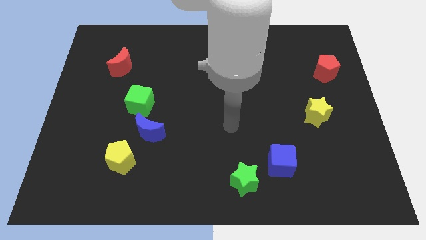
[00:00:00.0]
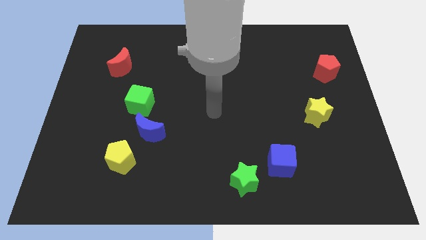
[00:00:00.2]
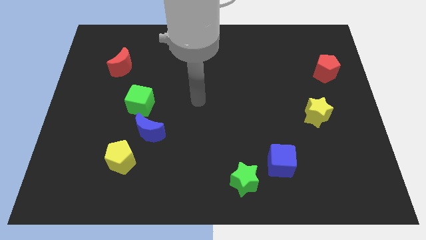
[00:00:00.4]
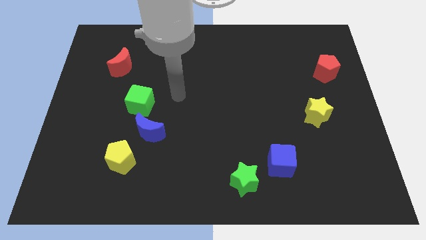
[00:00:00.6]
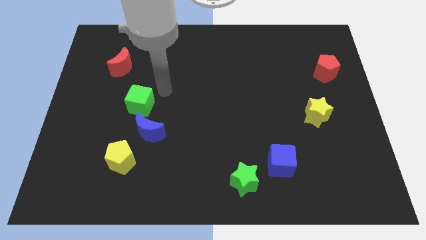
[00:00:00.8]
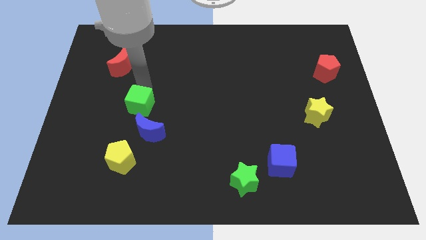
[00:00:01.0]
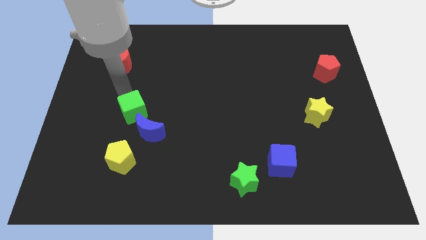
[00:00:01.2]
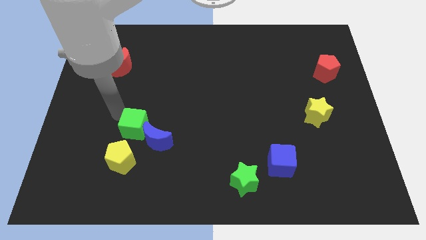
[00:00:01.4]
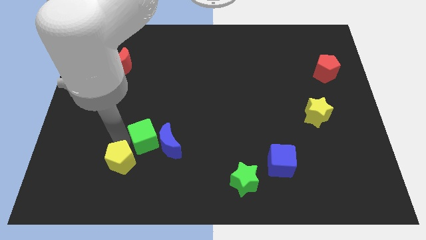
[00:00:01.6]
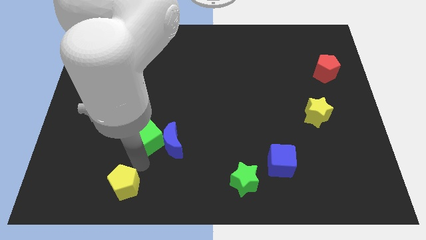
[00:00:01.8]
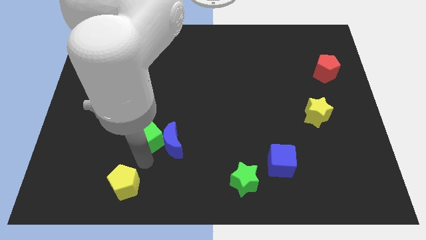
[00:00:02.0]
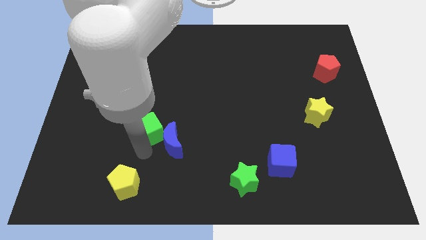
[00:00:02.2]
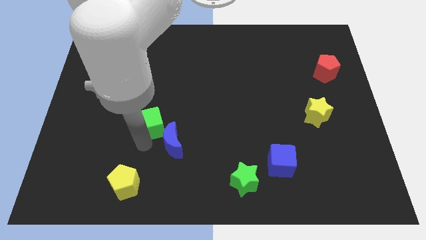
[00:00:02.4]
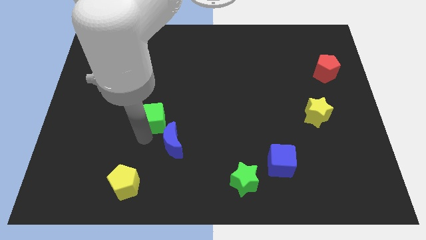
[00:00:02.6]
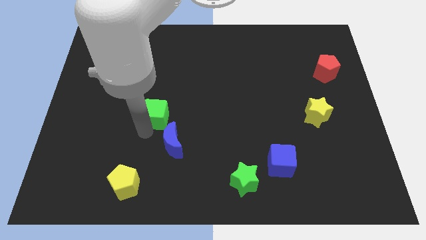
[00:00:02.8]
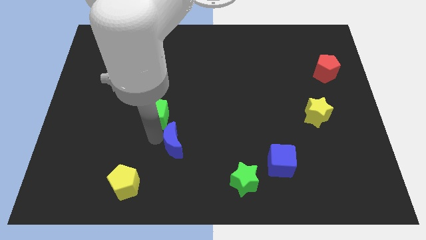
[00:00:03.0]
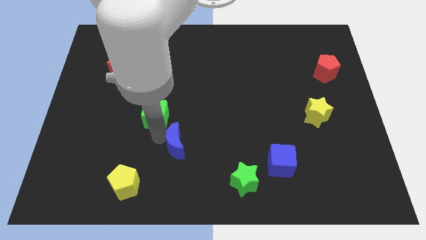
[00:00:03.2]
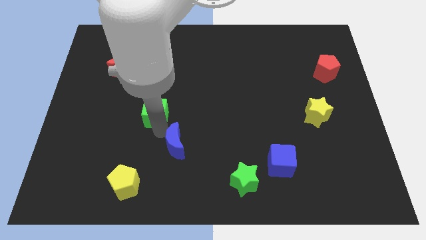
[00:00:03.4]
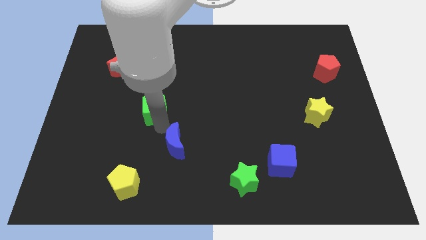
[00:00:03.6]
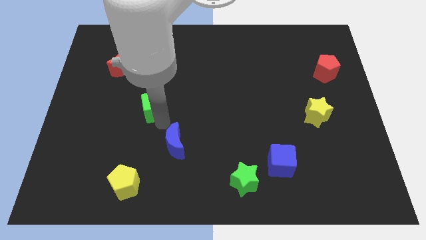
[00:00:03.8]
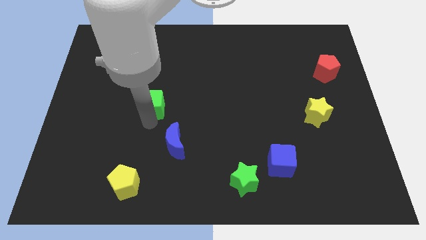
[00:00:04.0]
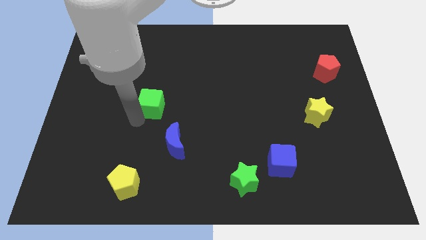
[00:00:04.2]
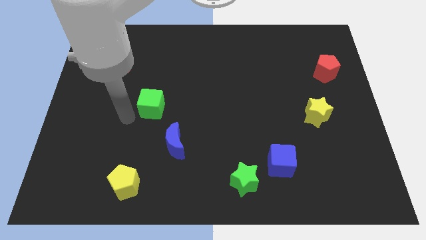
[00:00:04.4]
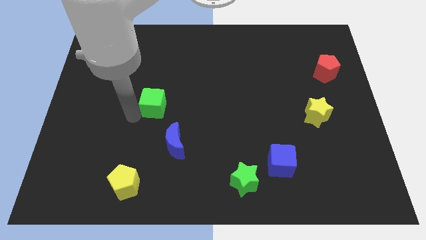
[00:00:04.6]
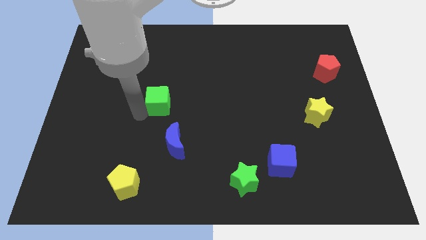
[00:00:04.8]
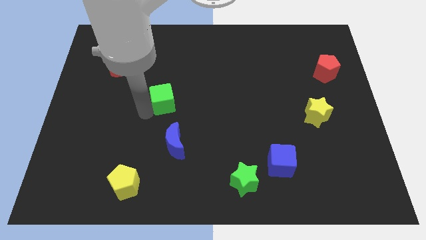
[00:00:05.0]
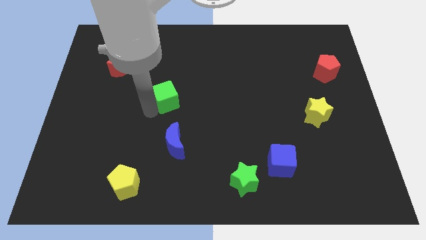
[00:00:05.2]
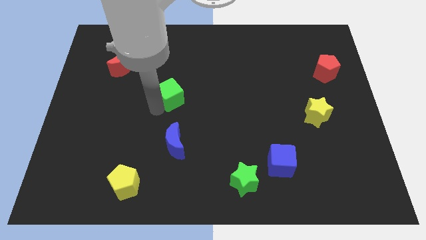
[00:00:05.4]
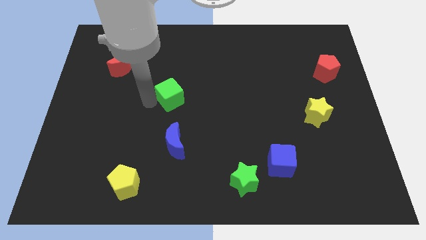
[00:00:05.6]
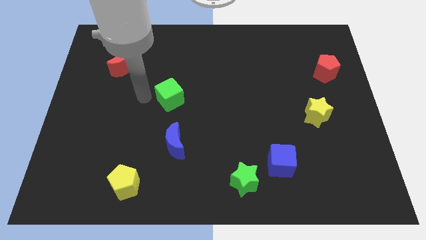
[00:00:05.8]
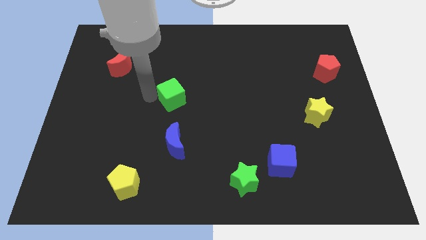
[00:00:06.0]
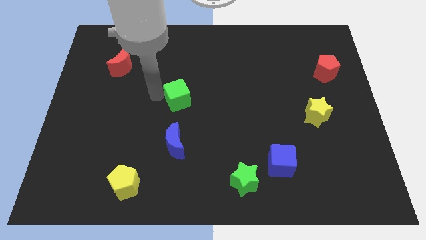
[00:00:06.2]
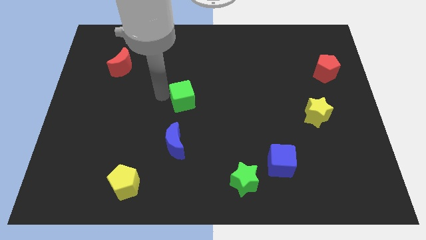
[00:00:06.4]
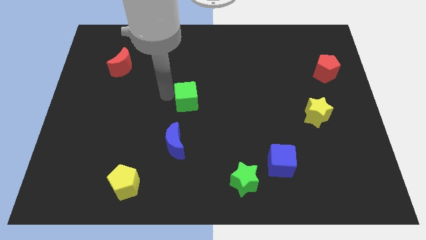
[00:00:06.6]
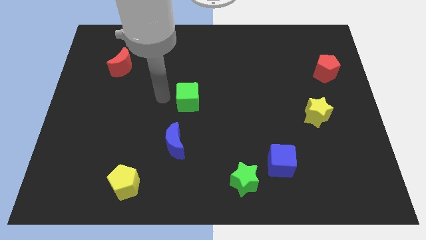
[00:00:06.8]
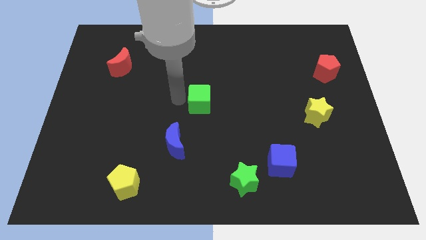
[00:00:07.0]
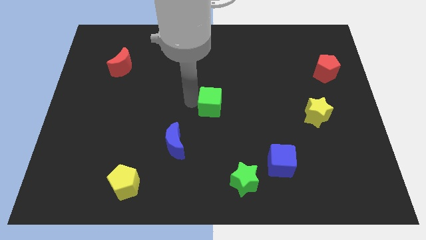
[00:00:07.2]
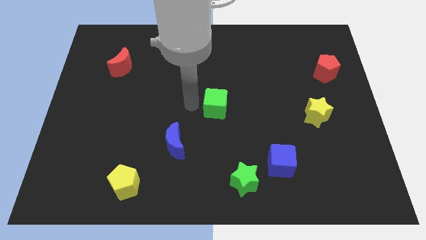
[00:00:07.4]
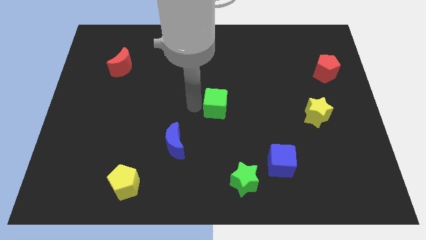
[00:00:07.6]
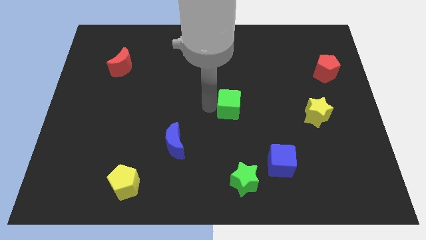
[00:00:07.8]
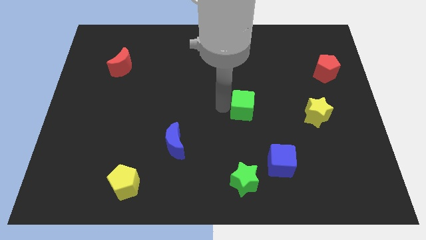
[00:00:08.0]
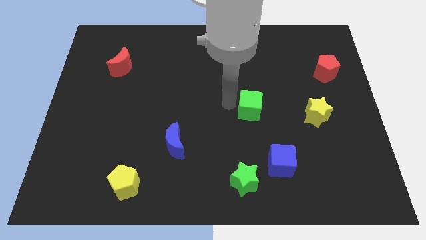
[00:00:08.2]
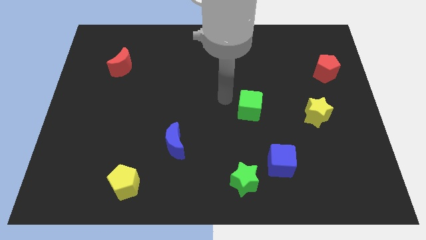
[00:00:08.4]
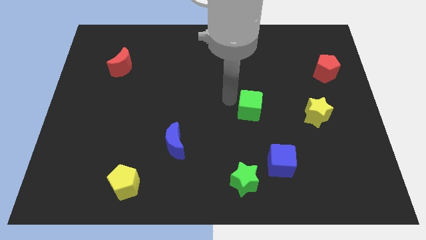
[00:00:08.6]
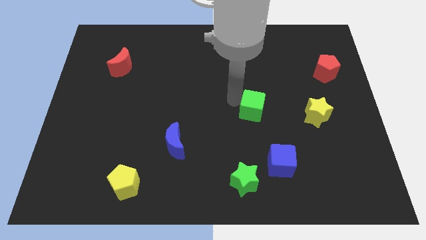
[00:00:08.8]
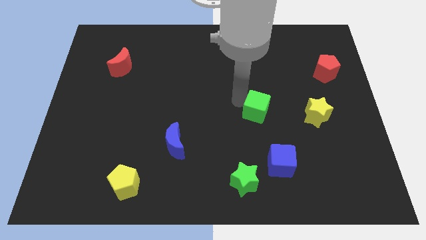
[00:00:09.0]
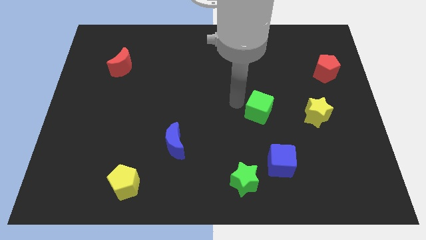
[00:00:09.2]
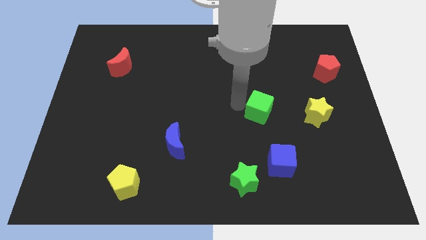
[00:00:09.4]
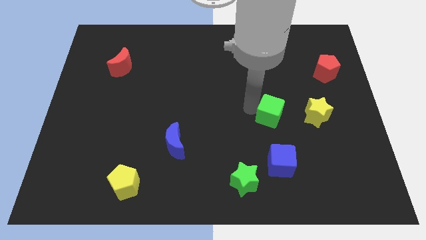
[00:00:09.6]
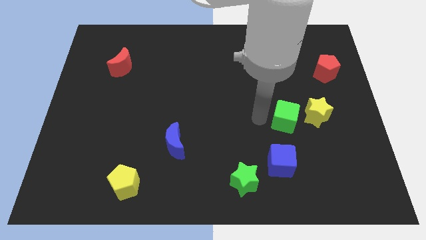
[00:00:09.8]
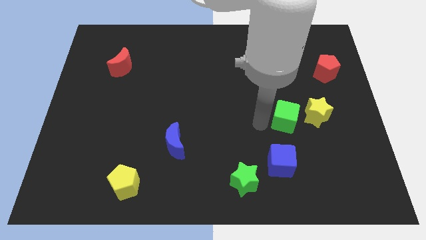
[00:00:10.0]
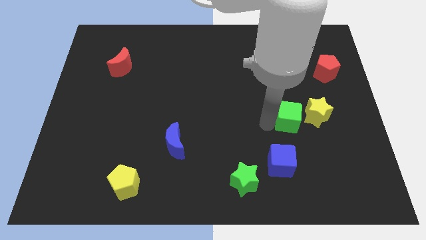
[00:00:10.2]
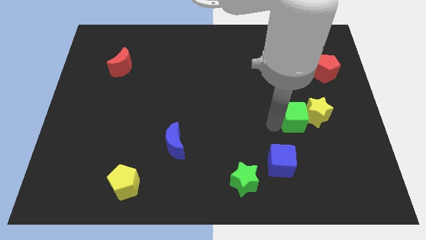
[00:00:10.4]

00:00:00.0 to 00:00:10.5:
move the green cube close to the yellow star
